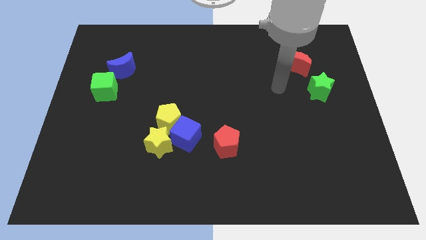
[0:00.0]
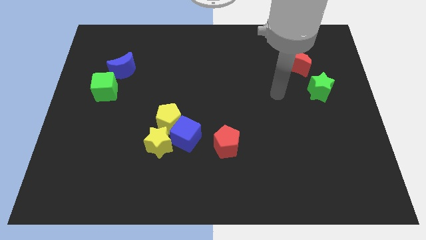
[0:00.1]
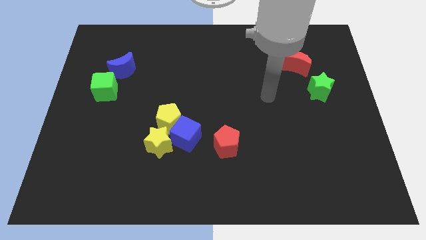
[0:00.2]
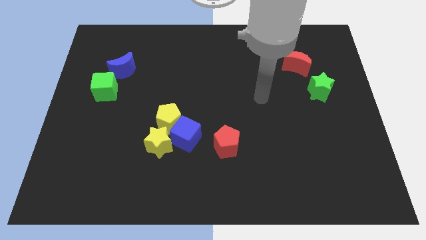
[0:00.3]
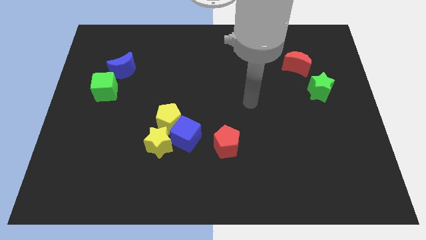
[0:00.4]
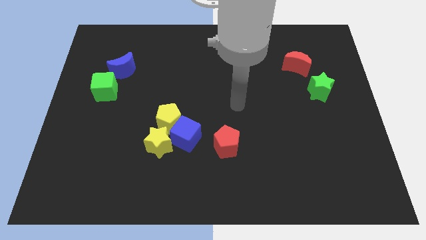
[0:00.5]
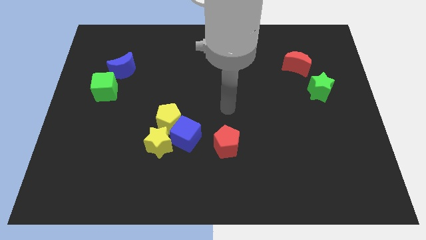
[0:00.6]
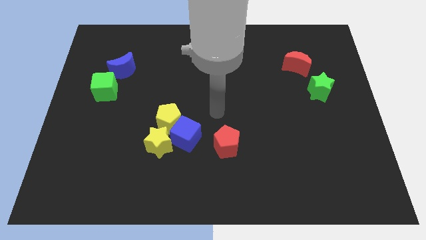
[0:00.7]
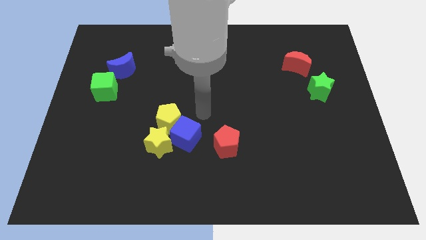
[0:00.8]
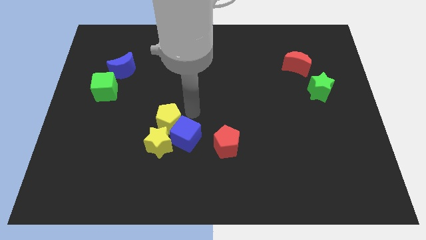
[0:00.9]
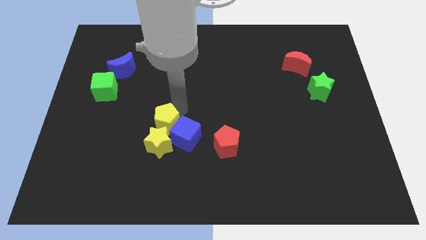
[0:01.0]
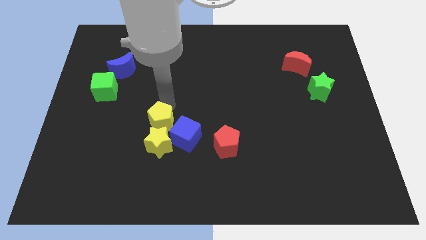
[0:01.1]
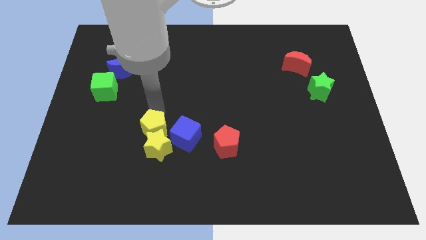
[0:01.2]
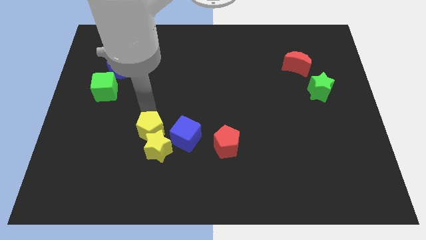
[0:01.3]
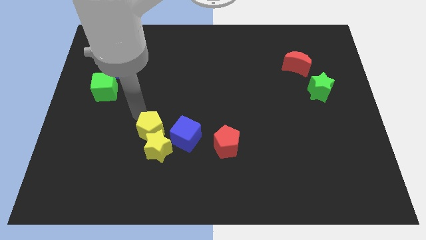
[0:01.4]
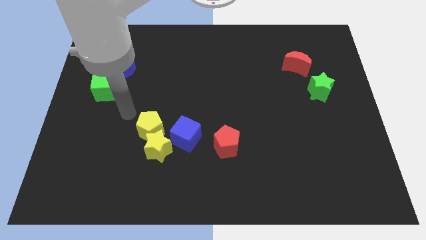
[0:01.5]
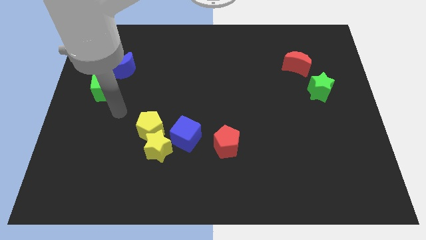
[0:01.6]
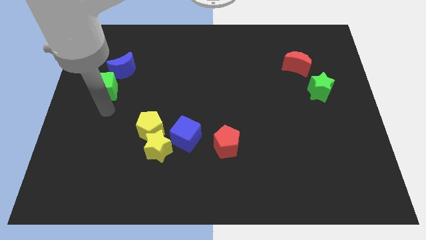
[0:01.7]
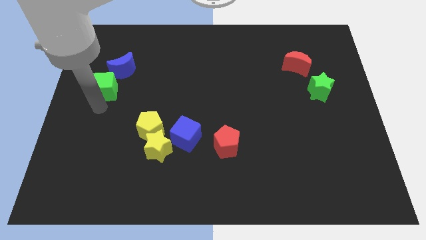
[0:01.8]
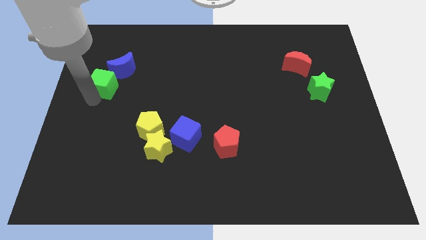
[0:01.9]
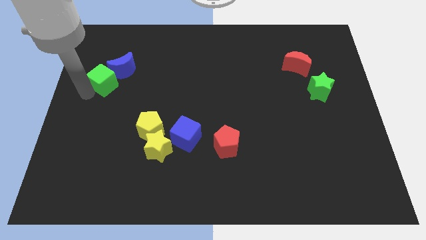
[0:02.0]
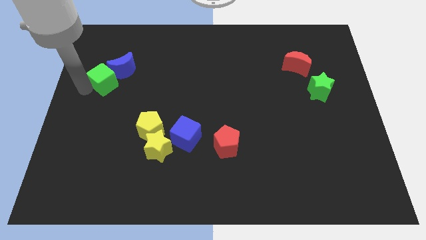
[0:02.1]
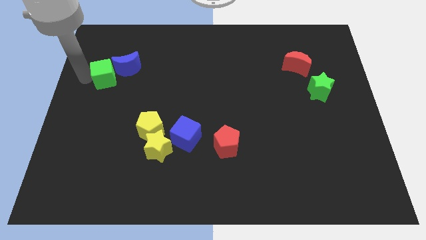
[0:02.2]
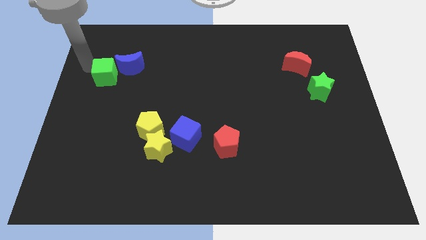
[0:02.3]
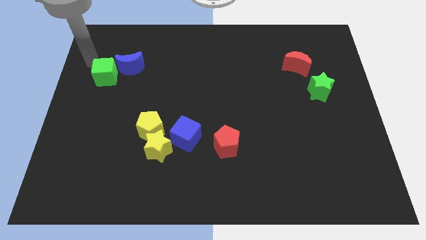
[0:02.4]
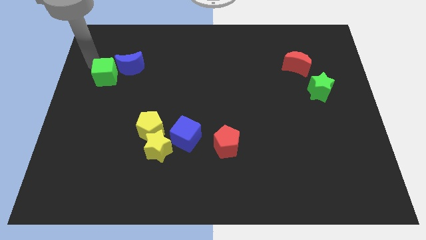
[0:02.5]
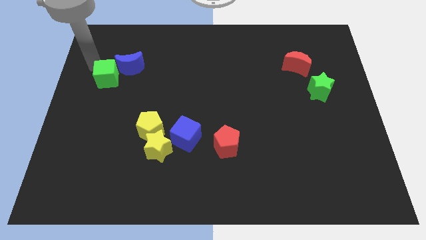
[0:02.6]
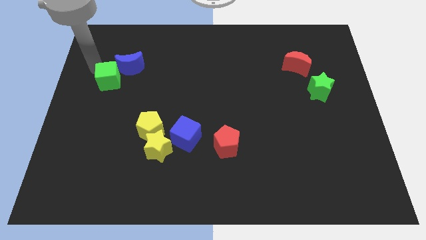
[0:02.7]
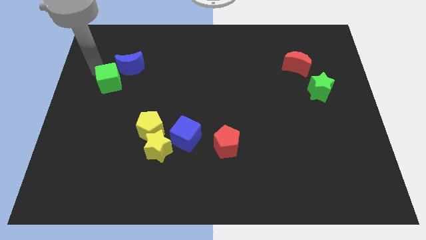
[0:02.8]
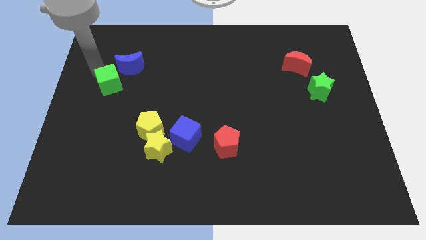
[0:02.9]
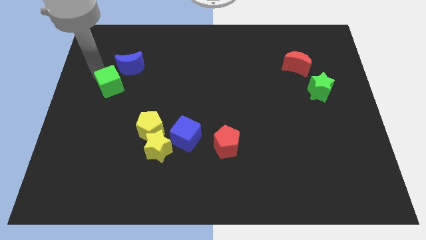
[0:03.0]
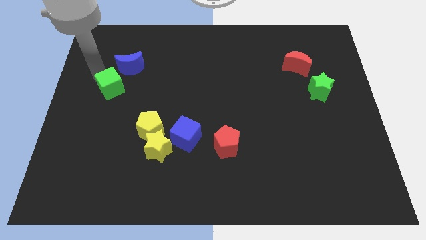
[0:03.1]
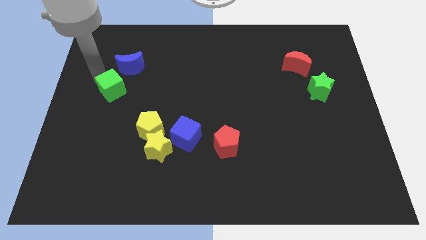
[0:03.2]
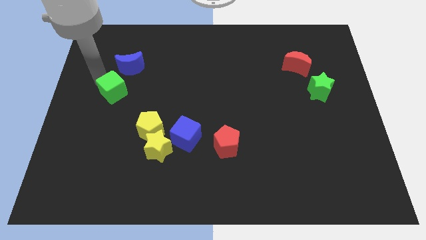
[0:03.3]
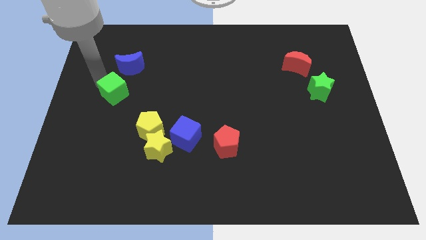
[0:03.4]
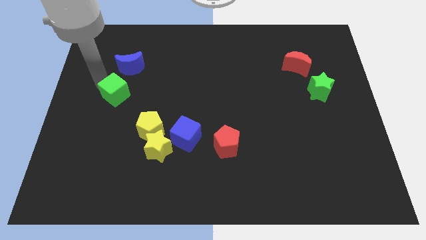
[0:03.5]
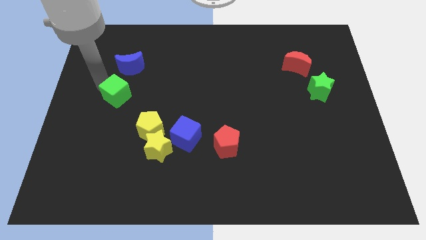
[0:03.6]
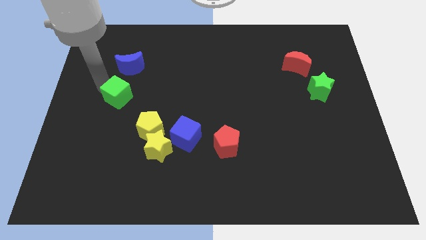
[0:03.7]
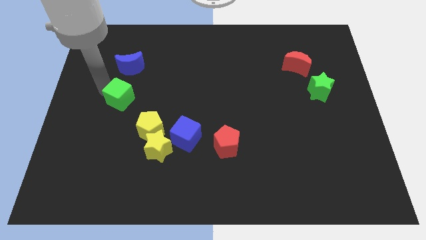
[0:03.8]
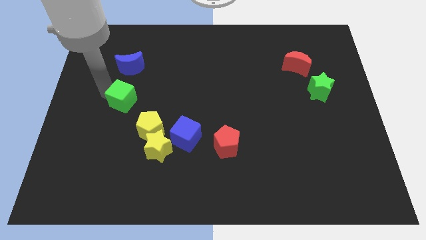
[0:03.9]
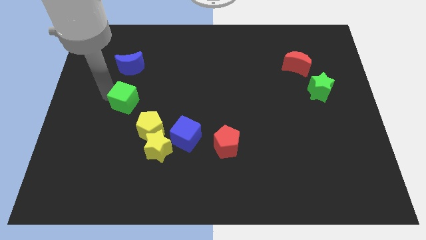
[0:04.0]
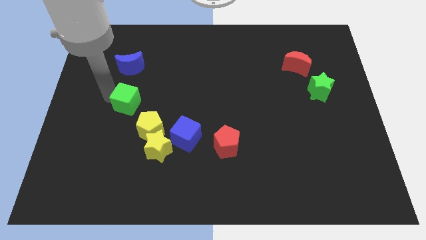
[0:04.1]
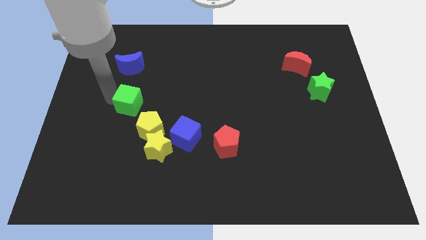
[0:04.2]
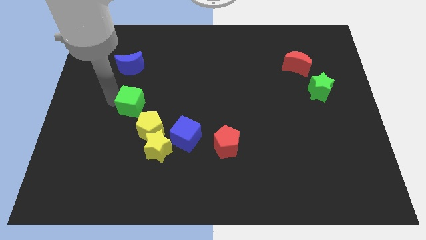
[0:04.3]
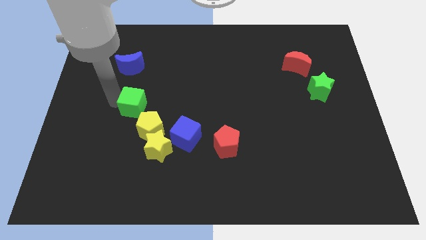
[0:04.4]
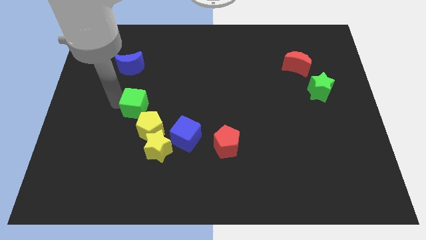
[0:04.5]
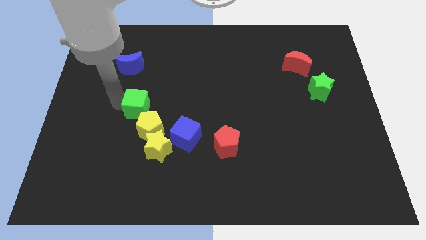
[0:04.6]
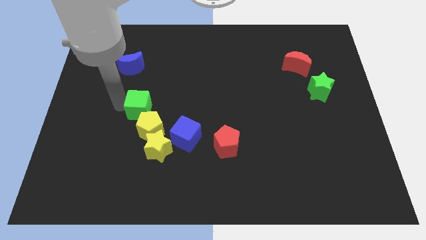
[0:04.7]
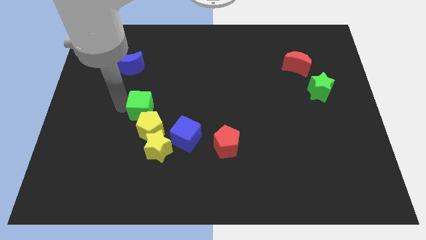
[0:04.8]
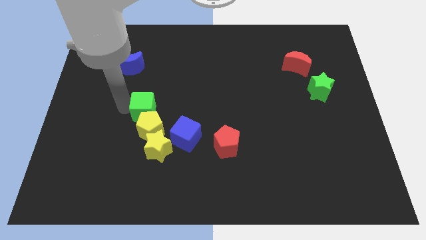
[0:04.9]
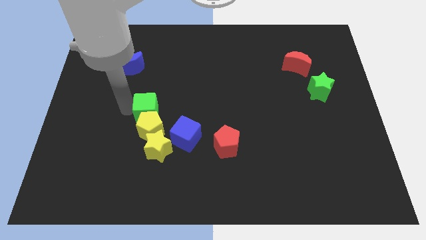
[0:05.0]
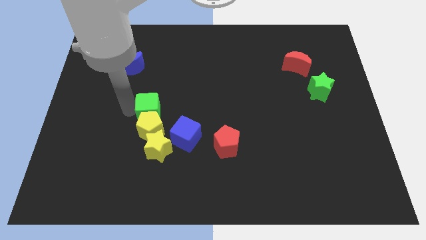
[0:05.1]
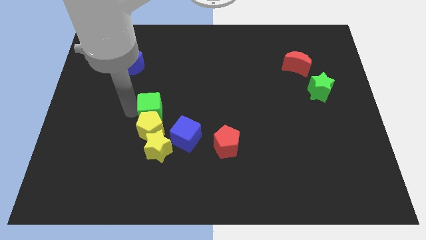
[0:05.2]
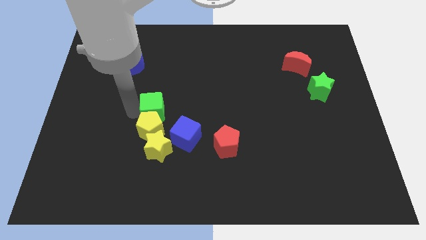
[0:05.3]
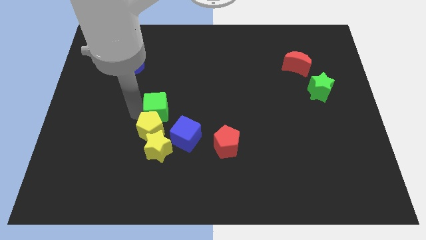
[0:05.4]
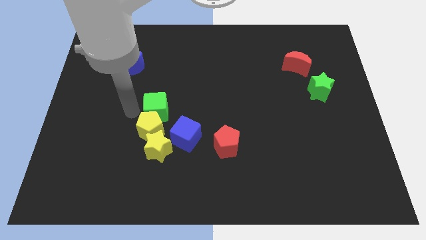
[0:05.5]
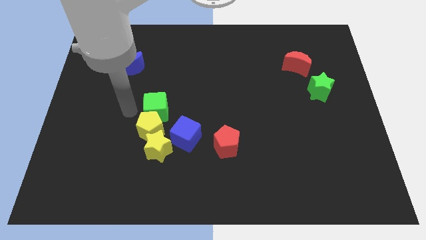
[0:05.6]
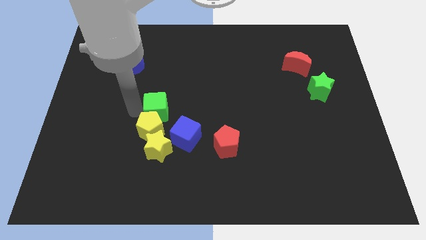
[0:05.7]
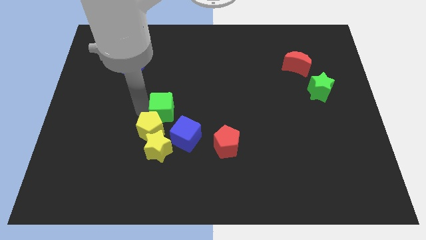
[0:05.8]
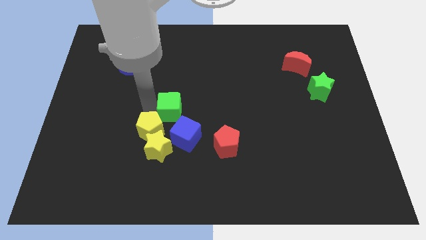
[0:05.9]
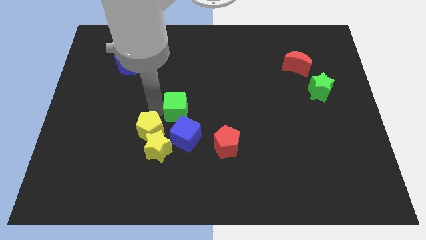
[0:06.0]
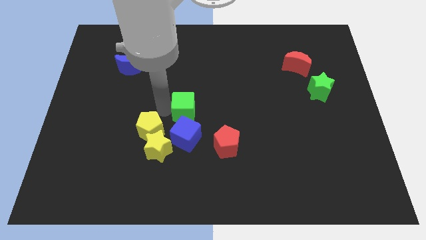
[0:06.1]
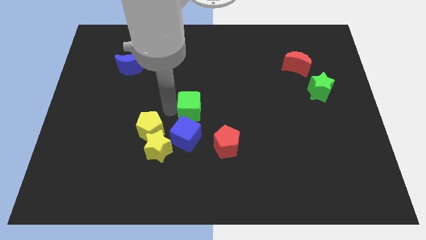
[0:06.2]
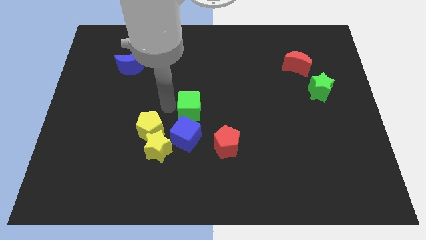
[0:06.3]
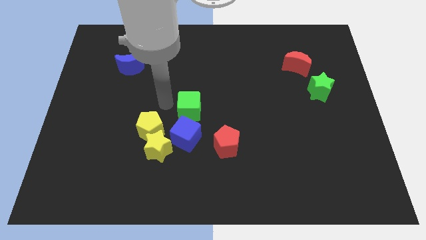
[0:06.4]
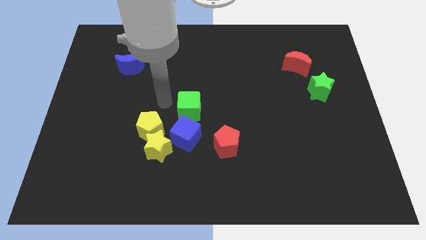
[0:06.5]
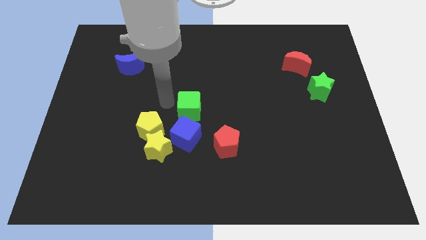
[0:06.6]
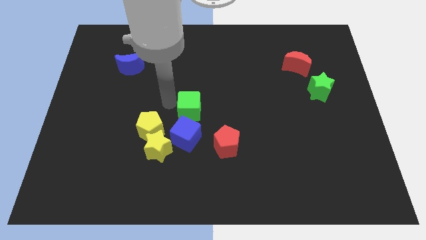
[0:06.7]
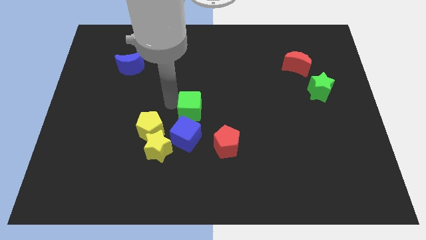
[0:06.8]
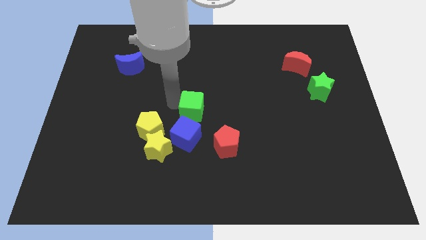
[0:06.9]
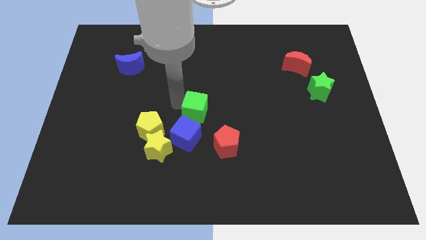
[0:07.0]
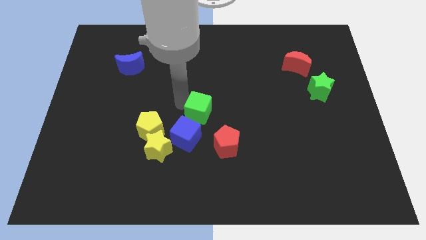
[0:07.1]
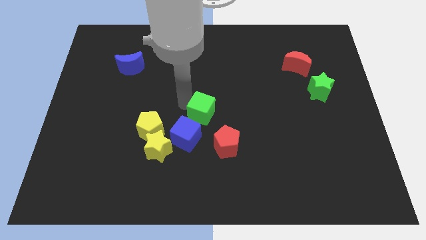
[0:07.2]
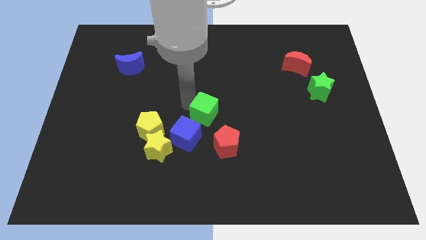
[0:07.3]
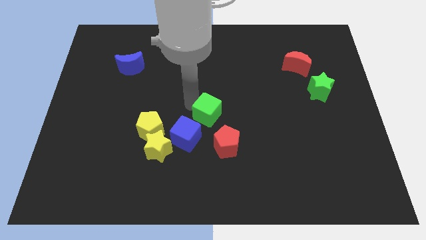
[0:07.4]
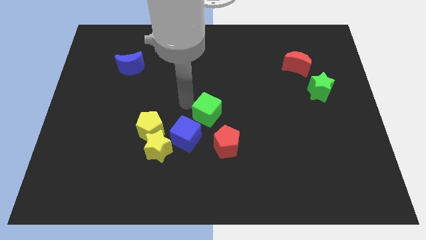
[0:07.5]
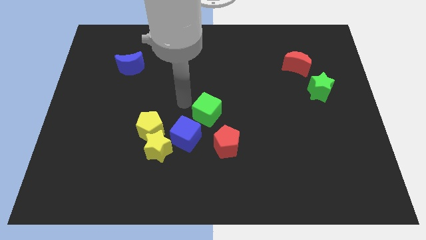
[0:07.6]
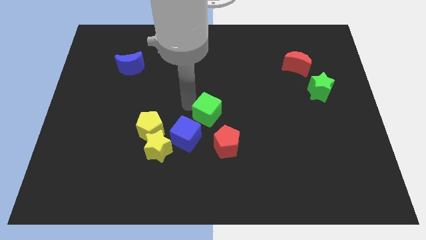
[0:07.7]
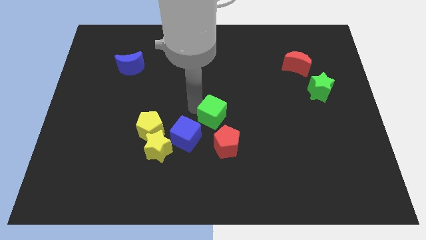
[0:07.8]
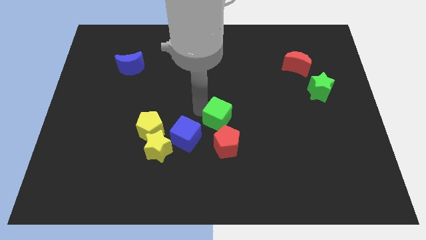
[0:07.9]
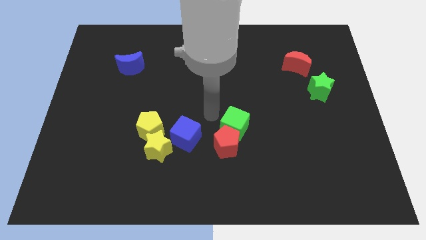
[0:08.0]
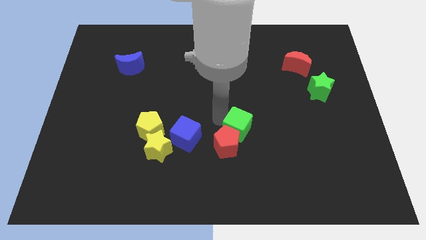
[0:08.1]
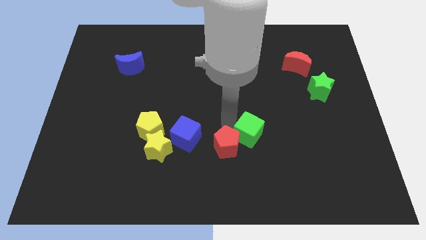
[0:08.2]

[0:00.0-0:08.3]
put the green cube to the right of the red pentagon
